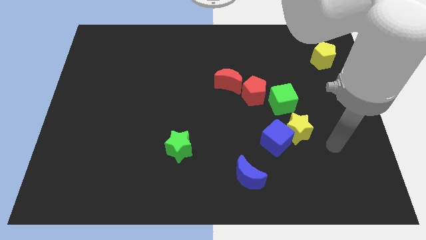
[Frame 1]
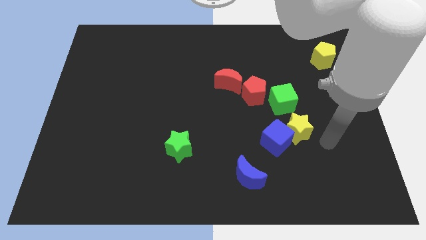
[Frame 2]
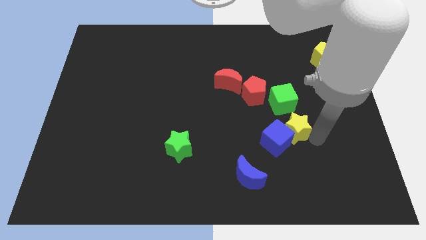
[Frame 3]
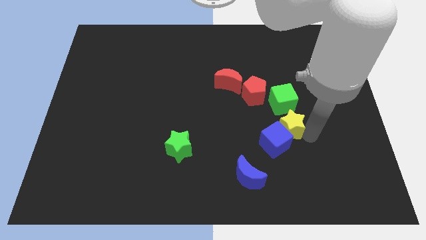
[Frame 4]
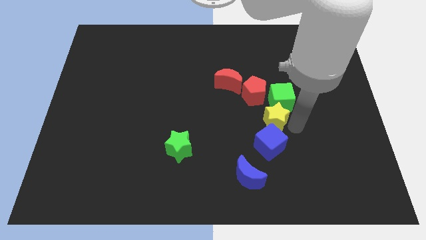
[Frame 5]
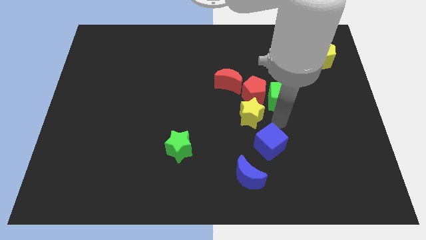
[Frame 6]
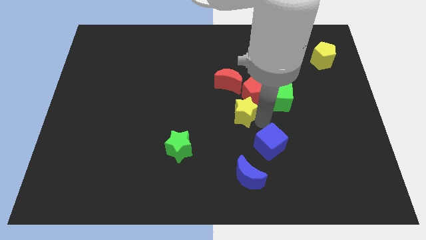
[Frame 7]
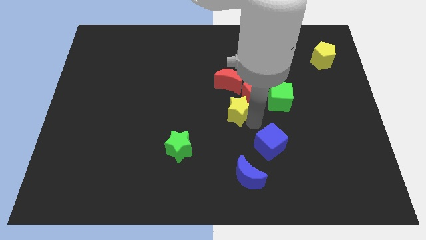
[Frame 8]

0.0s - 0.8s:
separate the blue cube from the yellow star

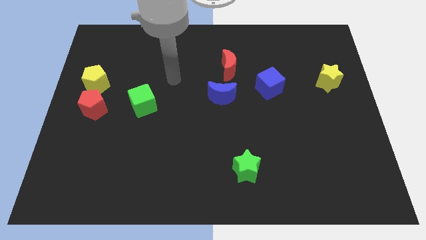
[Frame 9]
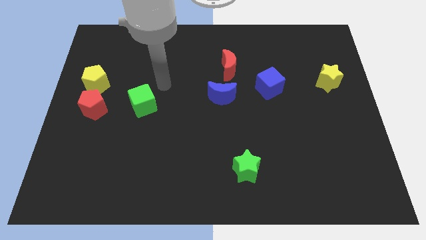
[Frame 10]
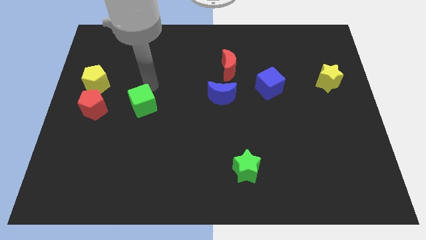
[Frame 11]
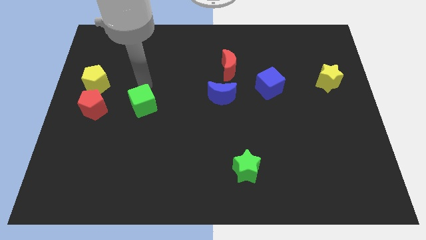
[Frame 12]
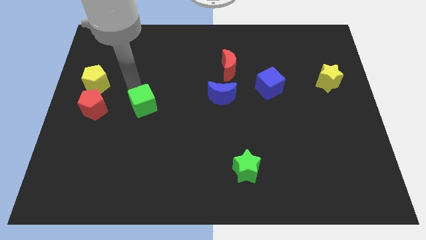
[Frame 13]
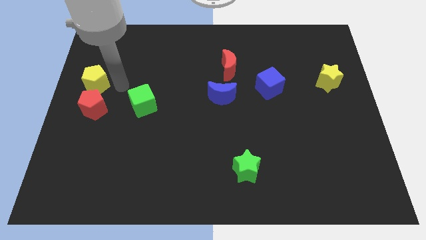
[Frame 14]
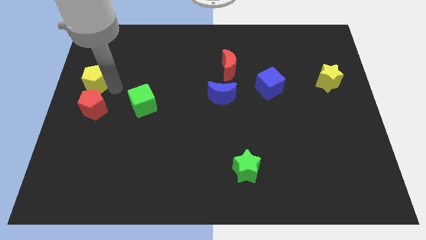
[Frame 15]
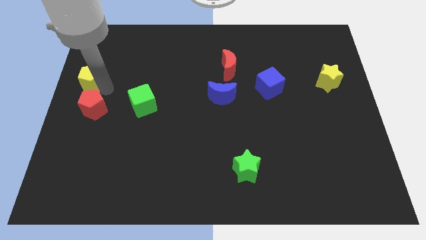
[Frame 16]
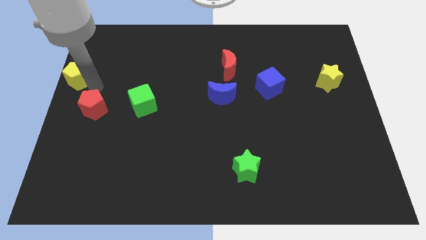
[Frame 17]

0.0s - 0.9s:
pull the red pentagon apart from the yellow pentagon

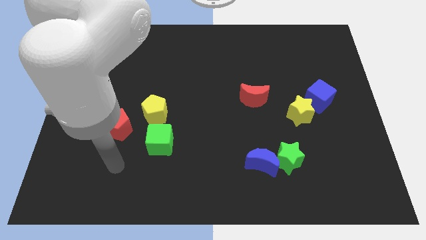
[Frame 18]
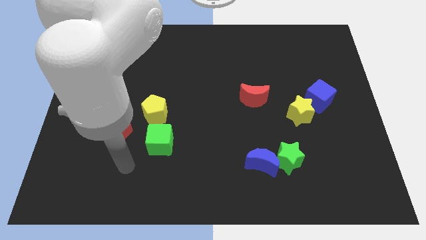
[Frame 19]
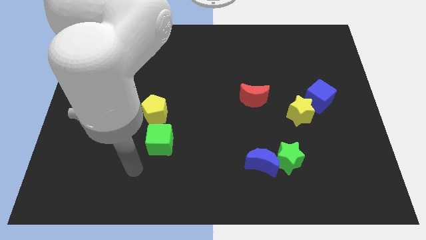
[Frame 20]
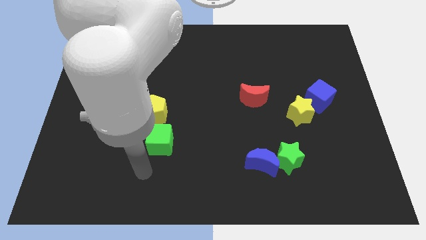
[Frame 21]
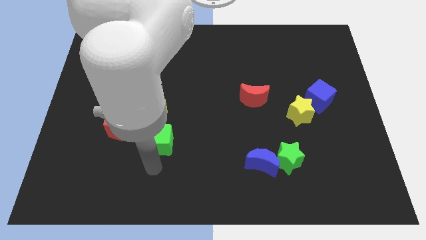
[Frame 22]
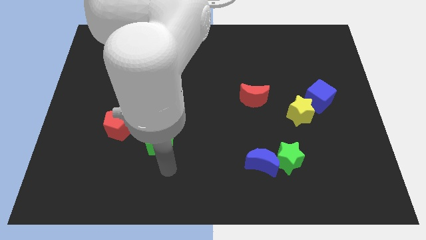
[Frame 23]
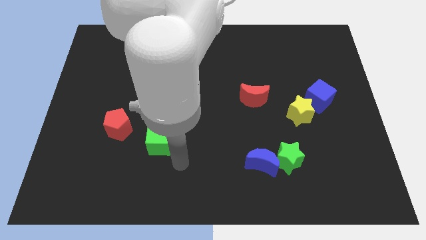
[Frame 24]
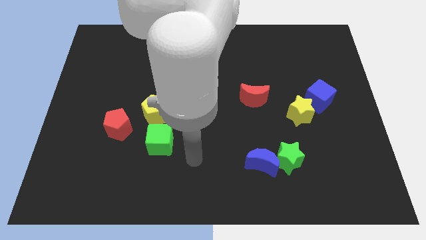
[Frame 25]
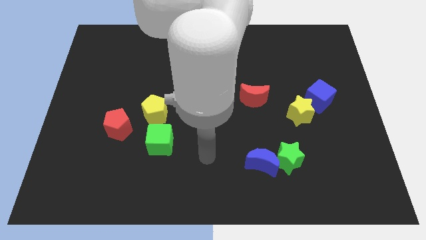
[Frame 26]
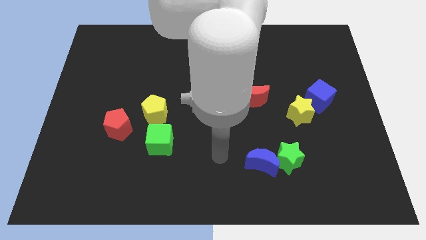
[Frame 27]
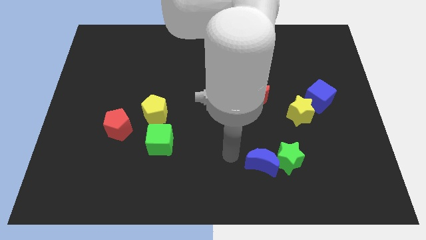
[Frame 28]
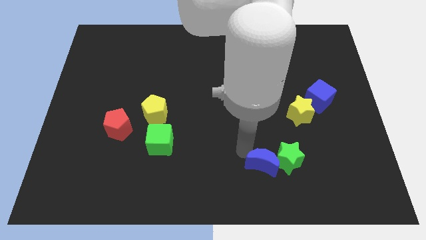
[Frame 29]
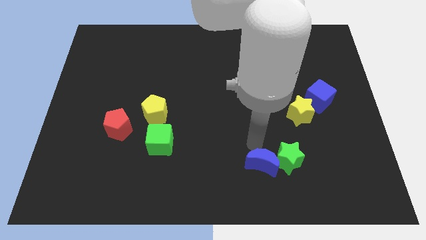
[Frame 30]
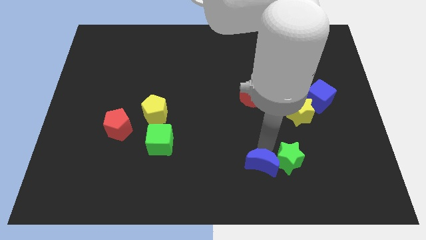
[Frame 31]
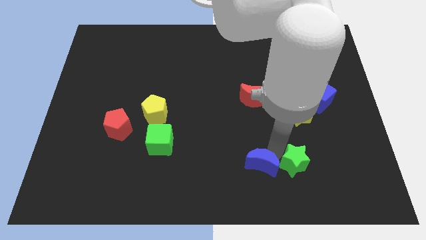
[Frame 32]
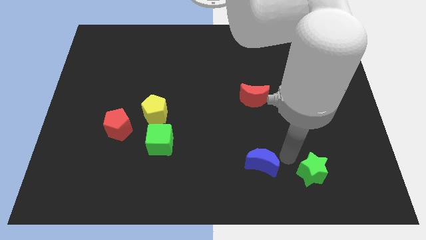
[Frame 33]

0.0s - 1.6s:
pull the blue moon apart from the green star

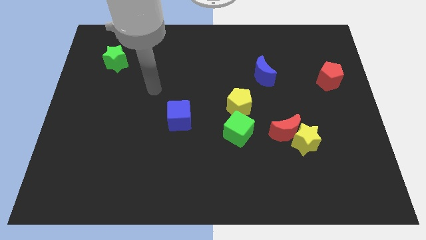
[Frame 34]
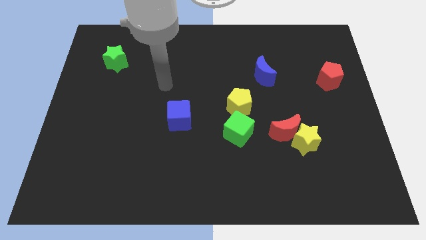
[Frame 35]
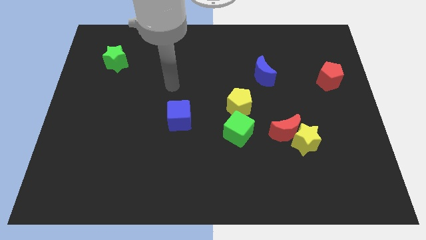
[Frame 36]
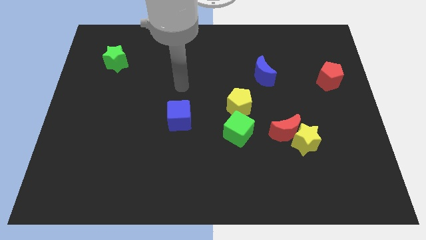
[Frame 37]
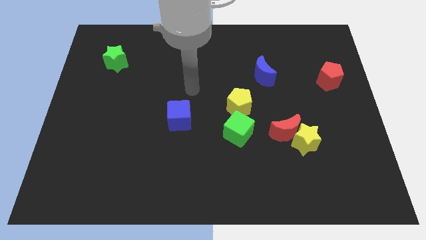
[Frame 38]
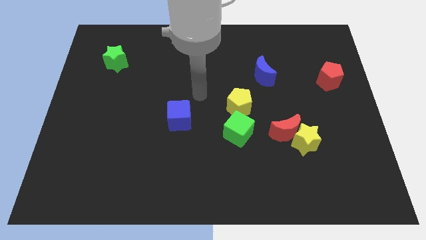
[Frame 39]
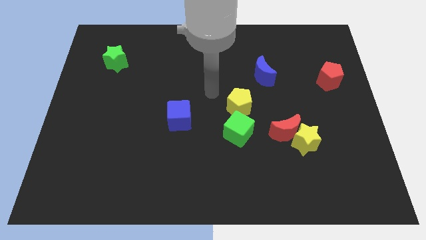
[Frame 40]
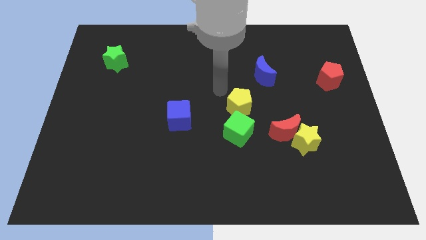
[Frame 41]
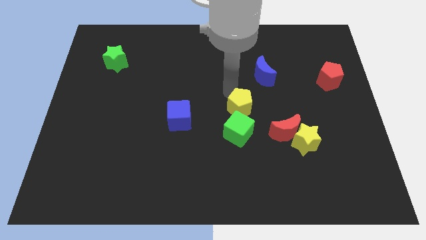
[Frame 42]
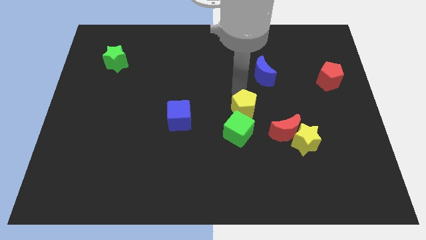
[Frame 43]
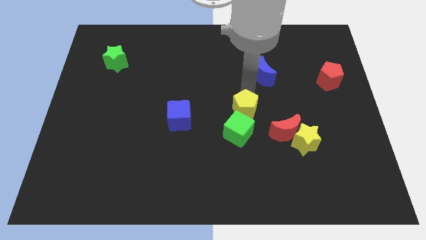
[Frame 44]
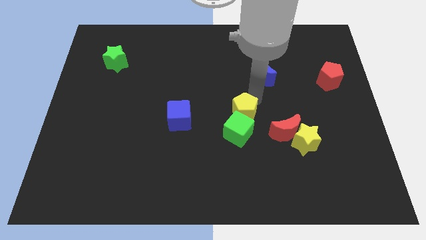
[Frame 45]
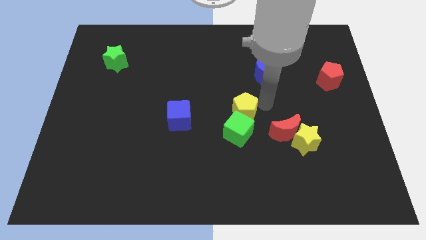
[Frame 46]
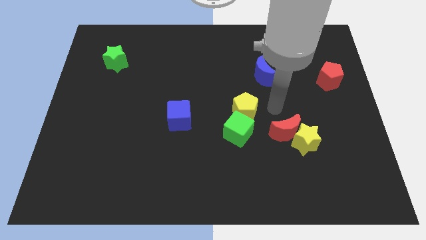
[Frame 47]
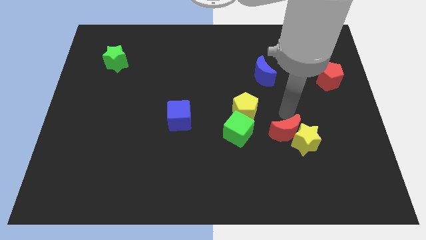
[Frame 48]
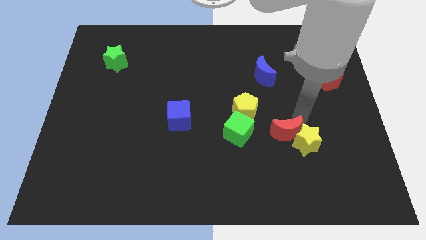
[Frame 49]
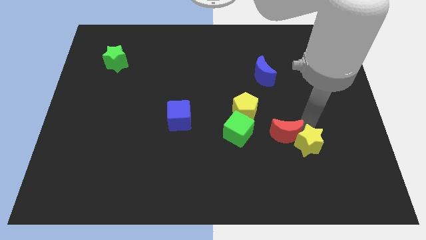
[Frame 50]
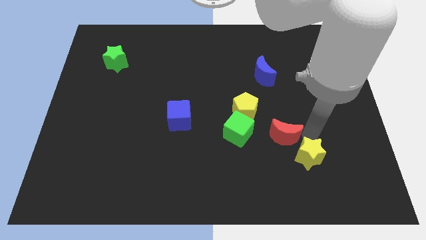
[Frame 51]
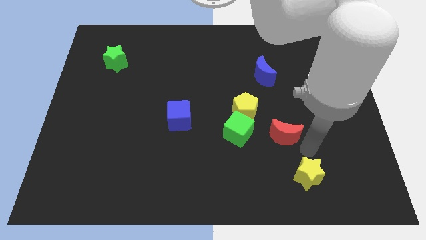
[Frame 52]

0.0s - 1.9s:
separate the red moon from the yellow star

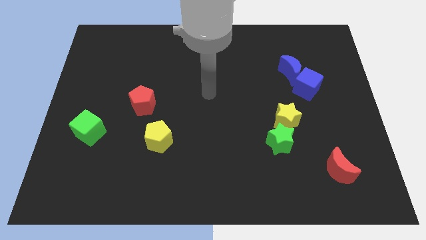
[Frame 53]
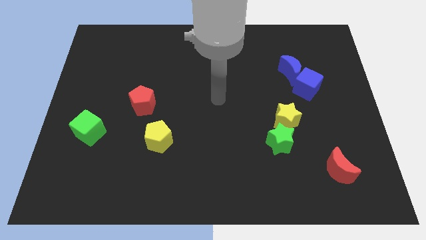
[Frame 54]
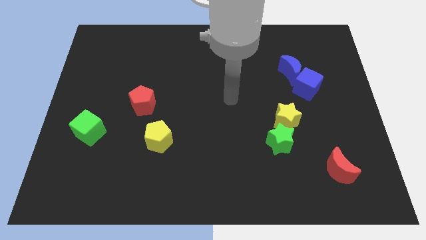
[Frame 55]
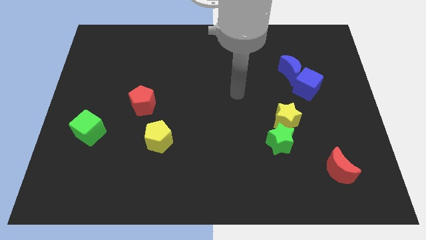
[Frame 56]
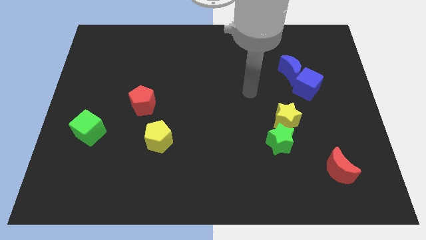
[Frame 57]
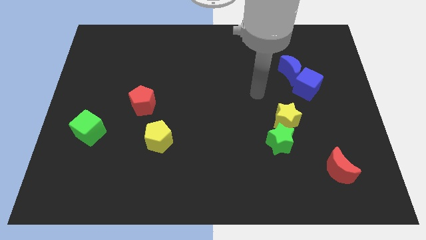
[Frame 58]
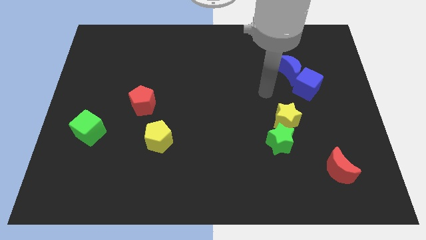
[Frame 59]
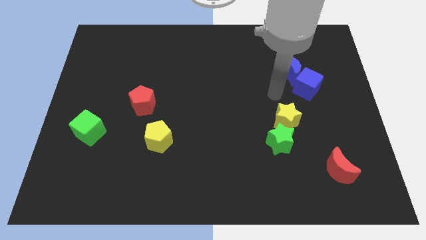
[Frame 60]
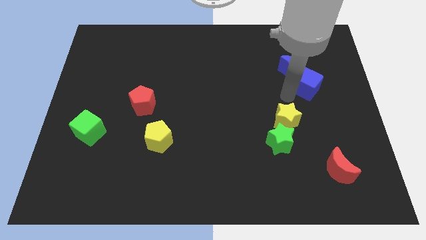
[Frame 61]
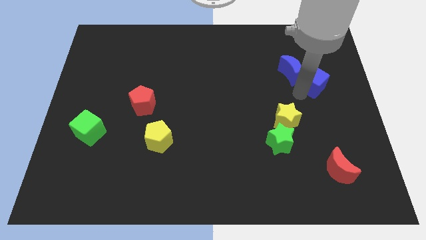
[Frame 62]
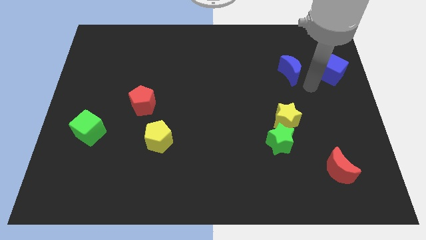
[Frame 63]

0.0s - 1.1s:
pull the blue moon apart from the blue cube

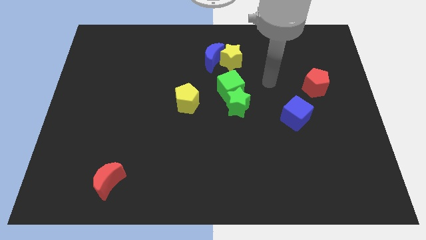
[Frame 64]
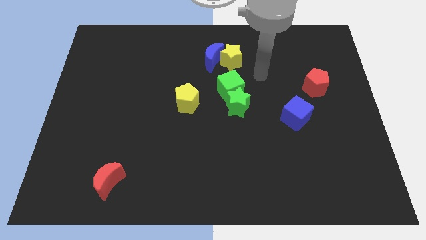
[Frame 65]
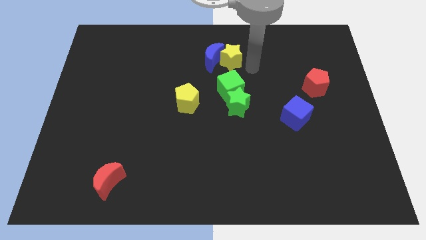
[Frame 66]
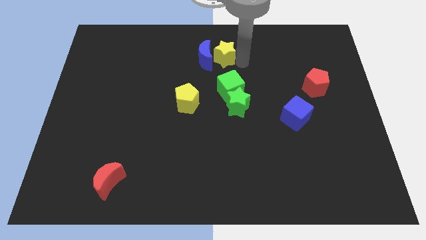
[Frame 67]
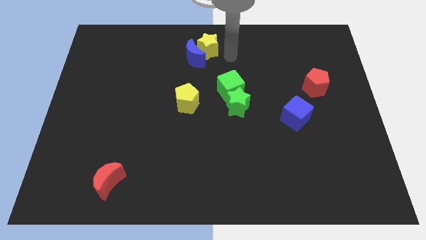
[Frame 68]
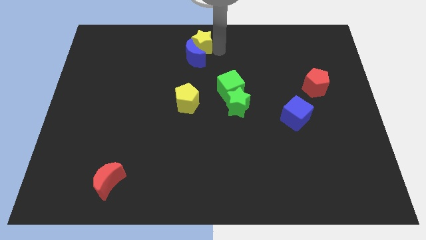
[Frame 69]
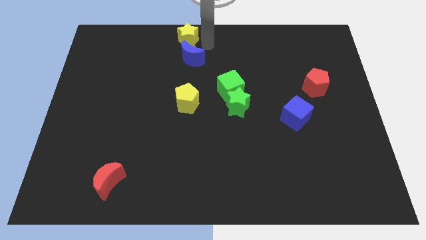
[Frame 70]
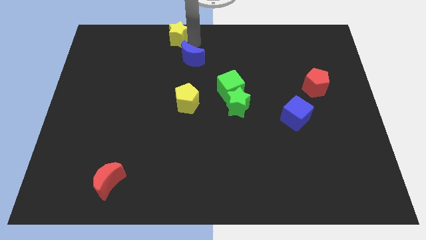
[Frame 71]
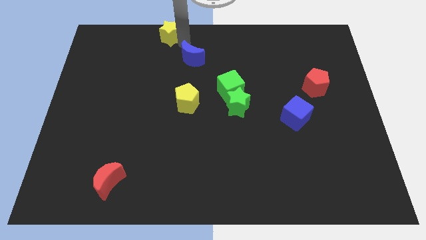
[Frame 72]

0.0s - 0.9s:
pull the blue moon apart from the yellow star

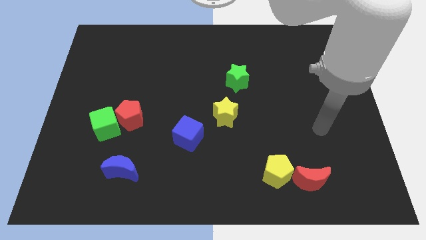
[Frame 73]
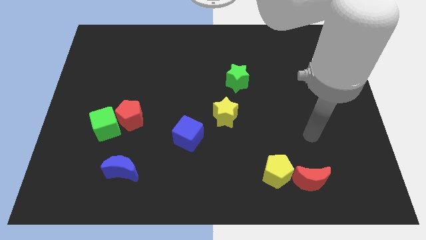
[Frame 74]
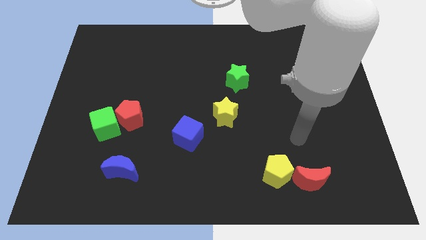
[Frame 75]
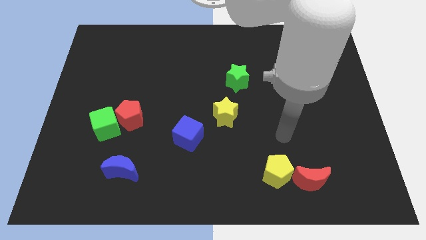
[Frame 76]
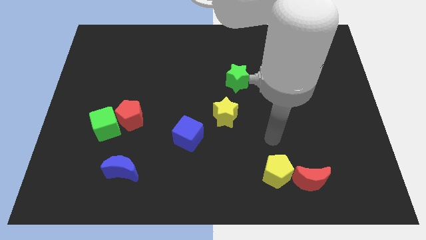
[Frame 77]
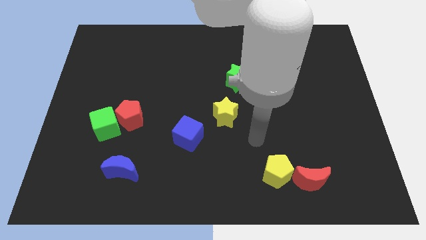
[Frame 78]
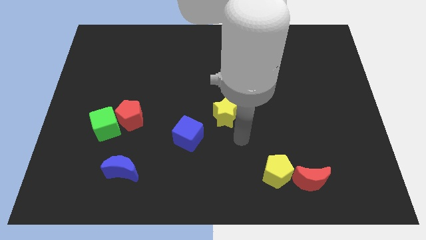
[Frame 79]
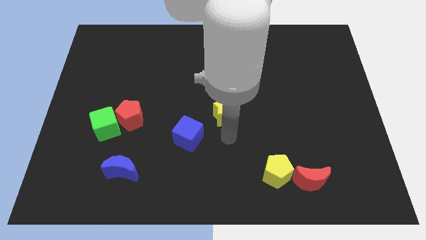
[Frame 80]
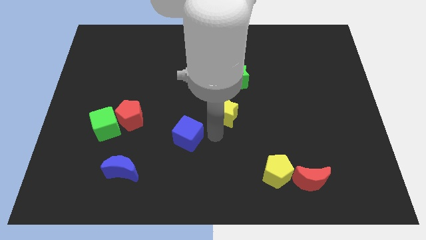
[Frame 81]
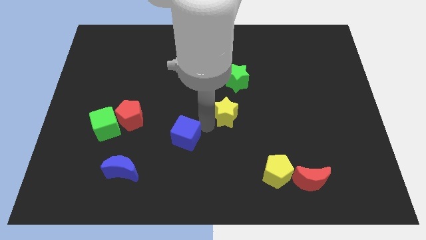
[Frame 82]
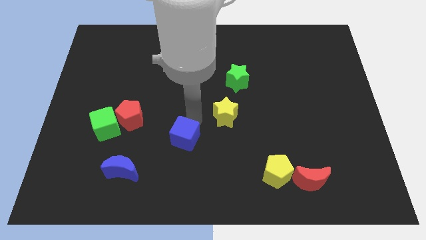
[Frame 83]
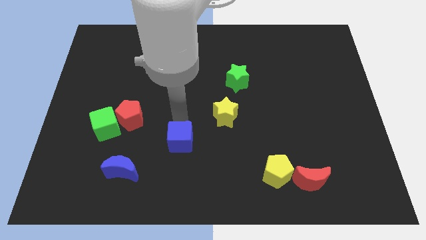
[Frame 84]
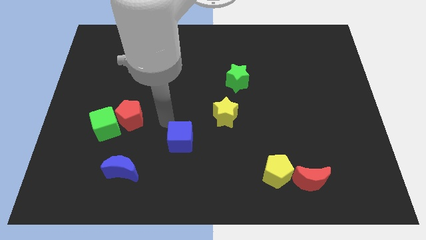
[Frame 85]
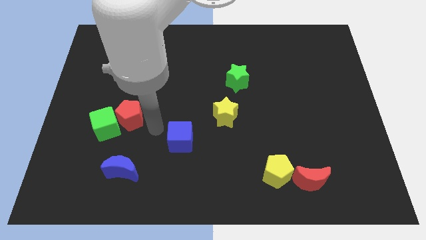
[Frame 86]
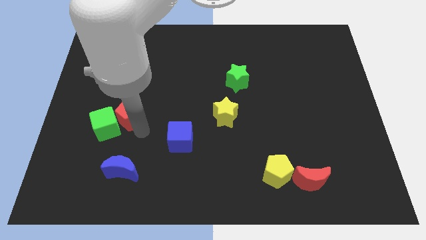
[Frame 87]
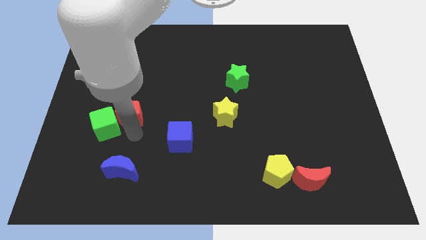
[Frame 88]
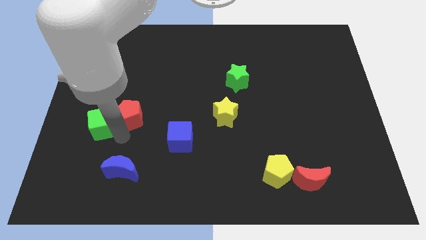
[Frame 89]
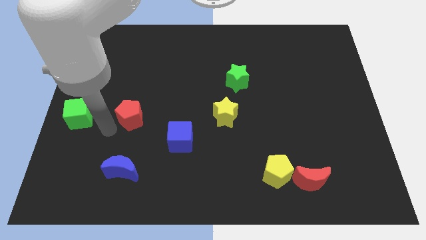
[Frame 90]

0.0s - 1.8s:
separate the red pentagon from the green cube

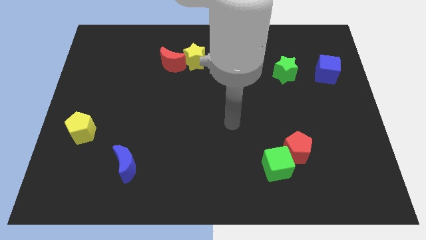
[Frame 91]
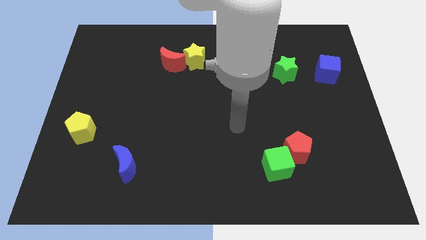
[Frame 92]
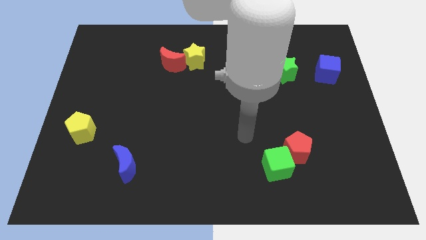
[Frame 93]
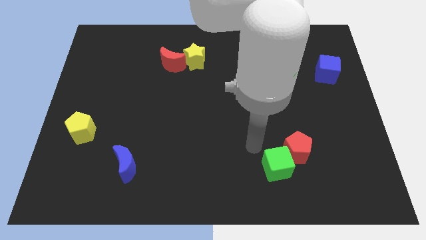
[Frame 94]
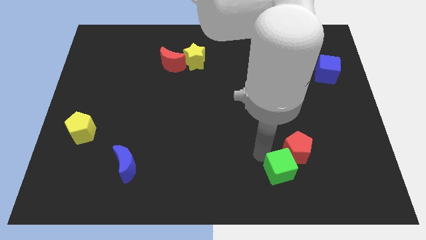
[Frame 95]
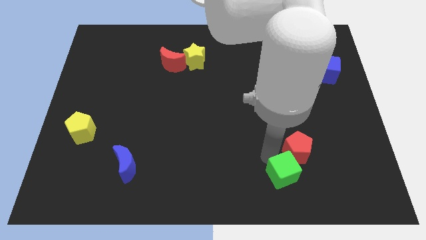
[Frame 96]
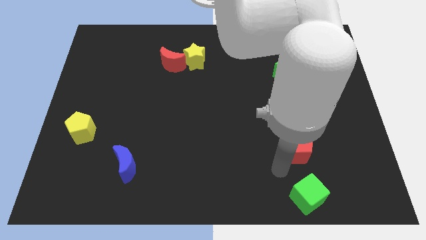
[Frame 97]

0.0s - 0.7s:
pull the red pentagon apart from the green cube
